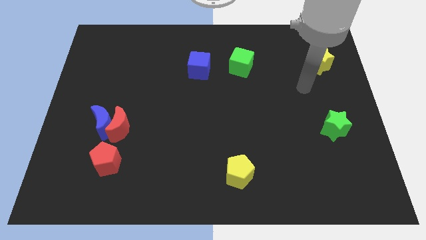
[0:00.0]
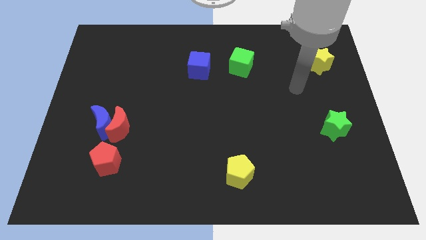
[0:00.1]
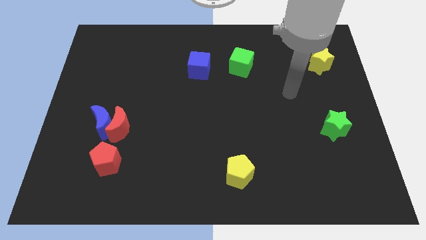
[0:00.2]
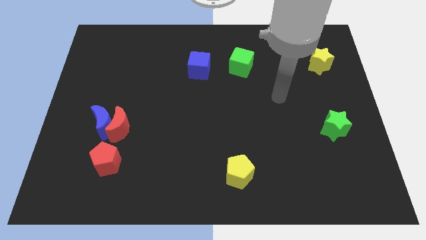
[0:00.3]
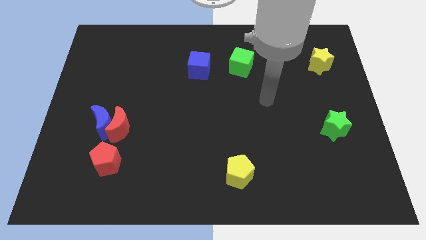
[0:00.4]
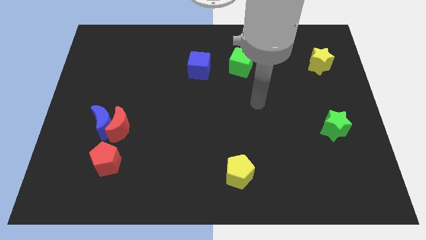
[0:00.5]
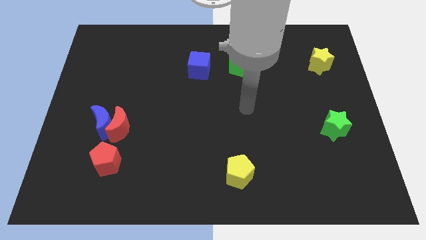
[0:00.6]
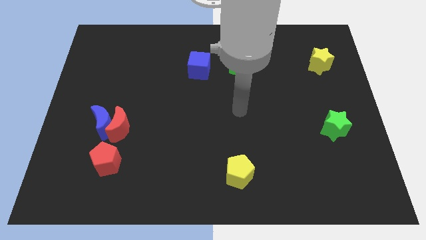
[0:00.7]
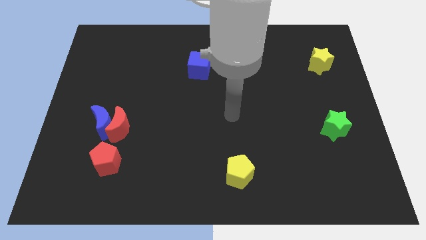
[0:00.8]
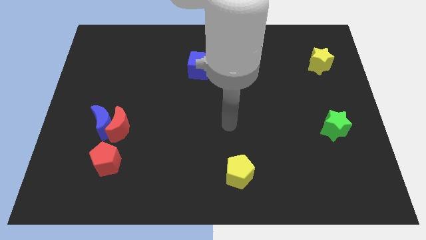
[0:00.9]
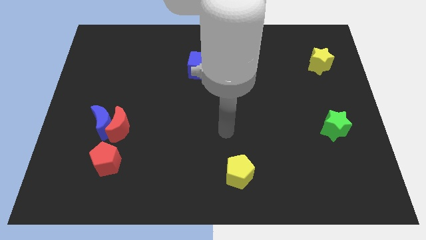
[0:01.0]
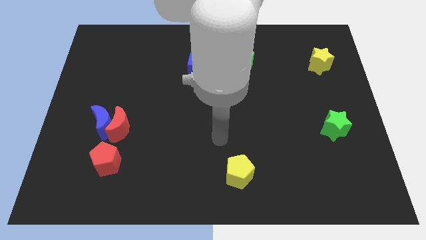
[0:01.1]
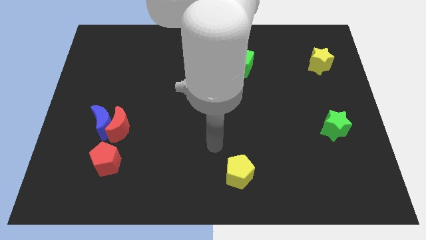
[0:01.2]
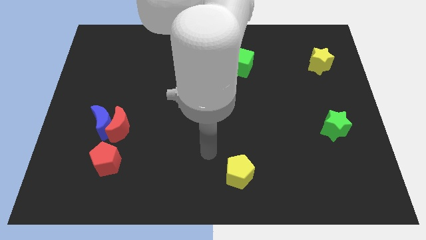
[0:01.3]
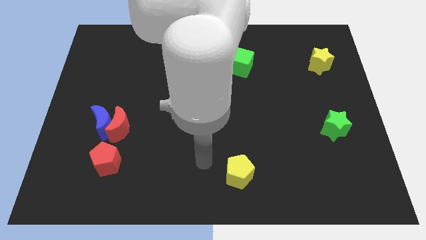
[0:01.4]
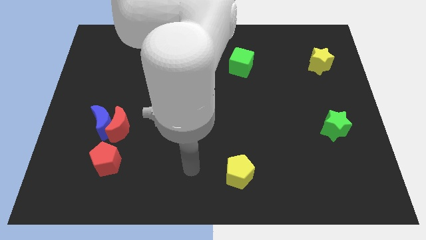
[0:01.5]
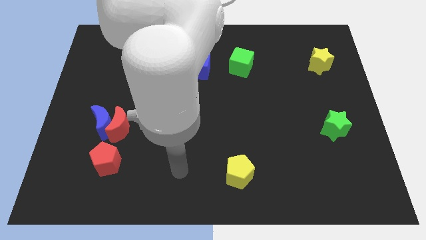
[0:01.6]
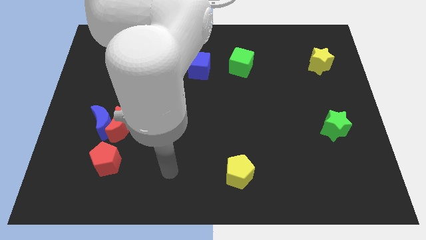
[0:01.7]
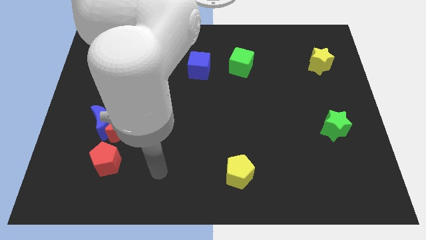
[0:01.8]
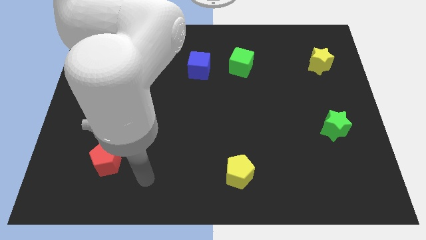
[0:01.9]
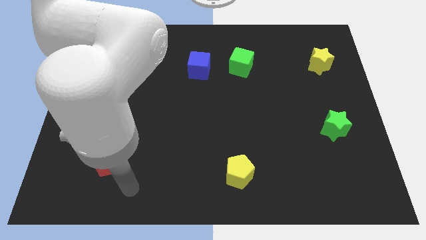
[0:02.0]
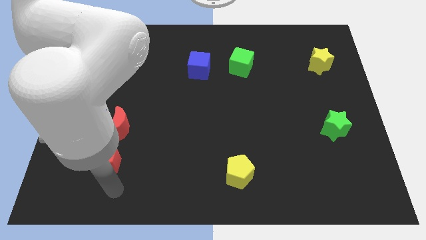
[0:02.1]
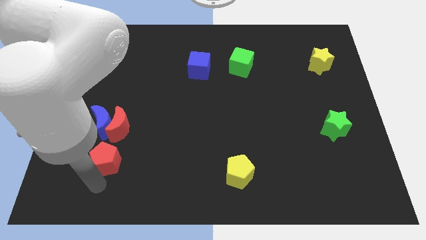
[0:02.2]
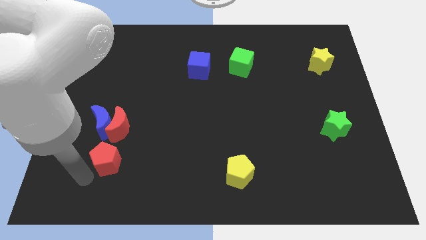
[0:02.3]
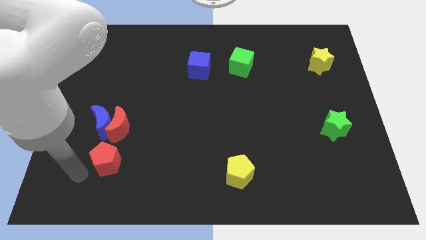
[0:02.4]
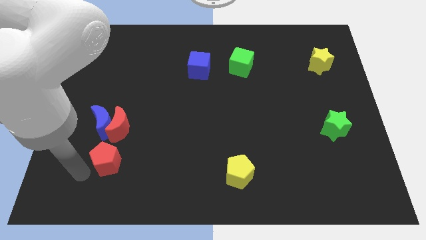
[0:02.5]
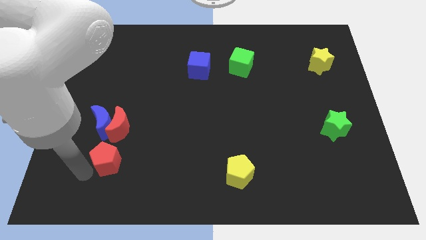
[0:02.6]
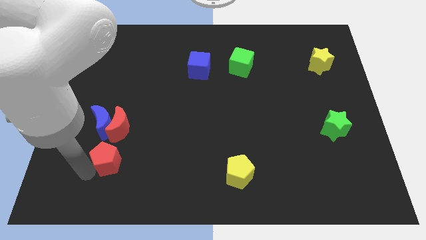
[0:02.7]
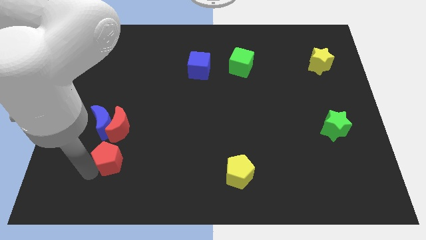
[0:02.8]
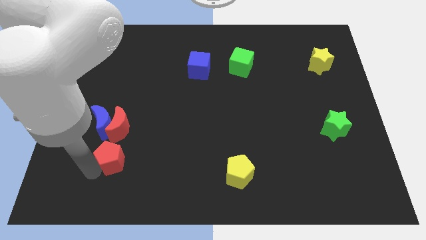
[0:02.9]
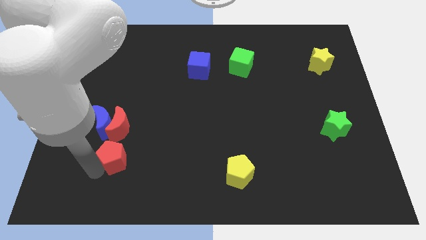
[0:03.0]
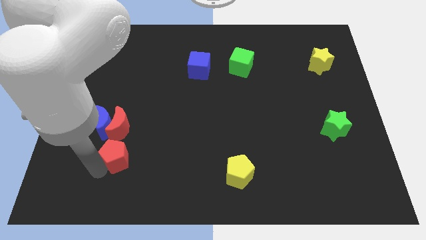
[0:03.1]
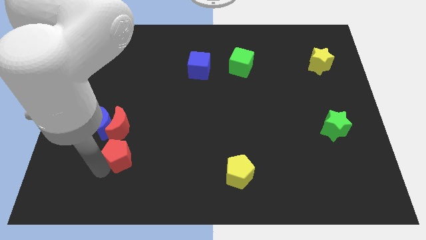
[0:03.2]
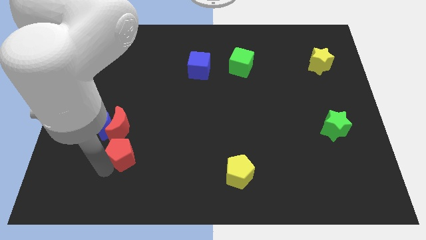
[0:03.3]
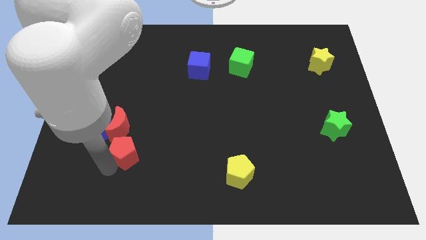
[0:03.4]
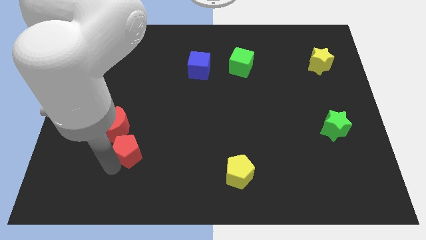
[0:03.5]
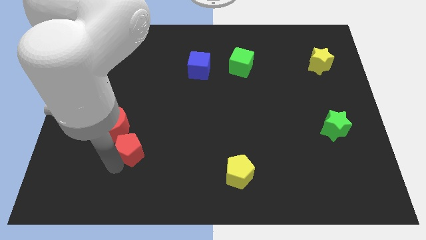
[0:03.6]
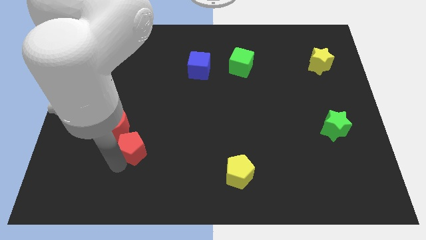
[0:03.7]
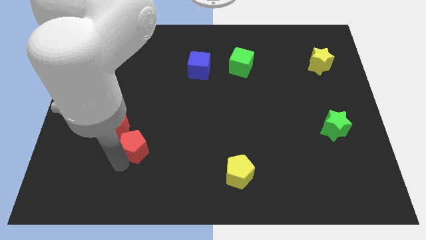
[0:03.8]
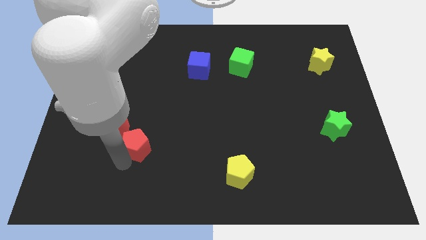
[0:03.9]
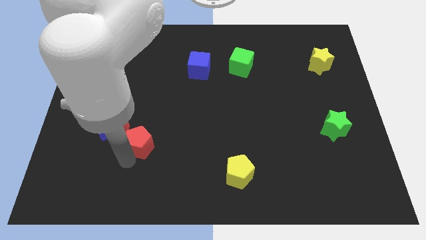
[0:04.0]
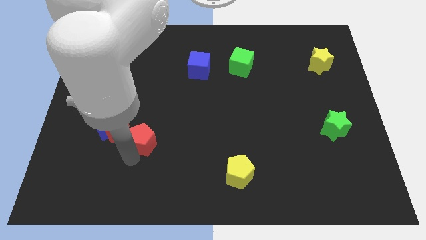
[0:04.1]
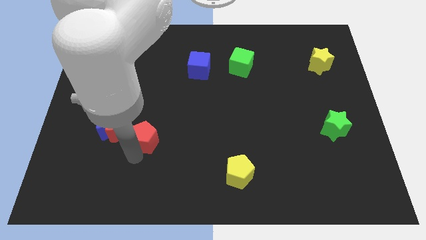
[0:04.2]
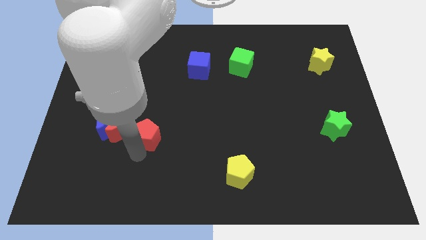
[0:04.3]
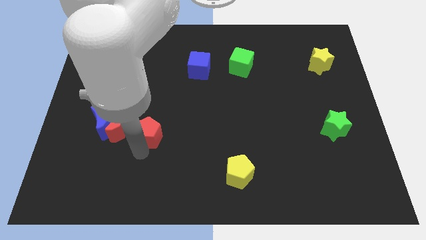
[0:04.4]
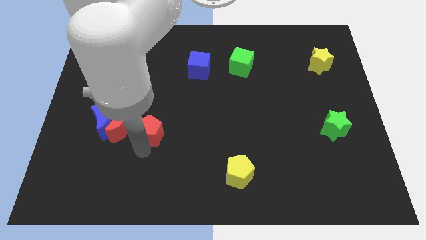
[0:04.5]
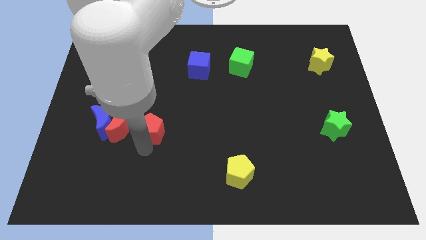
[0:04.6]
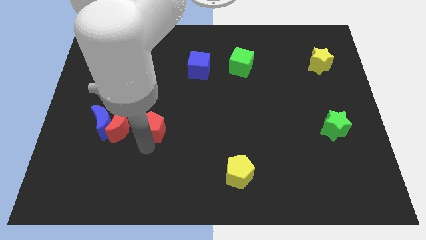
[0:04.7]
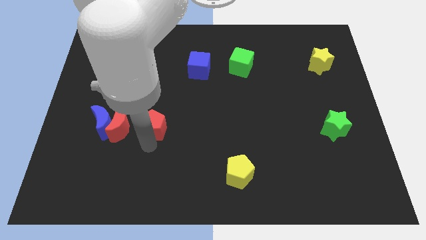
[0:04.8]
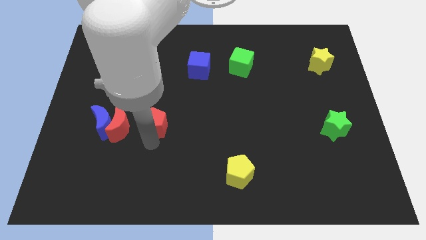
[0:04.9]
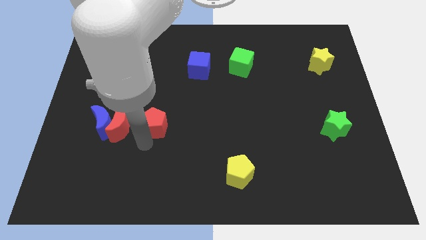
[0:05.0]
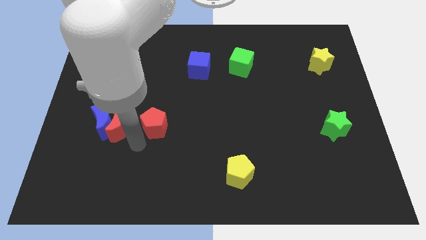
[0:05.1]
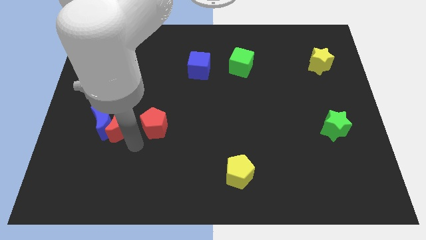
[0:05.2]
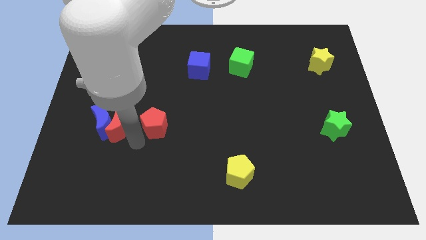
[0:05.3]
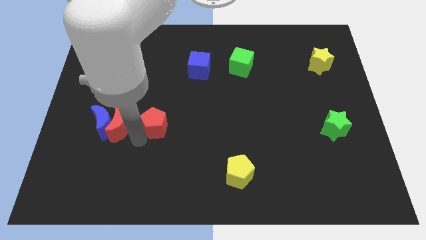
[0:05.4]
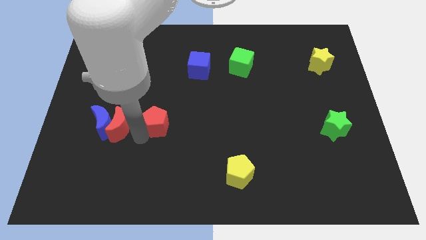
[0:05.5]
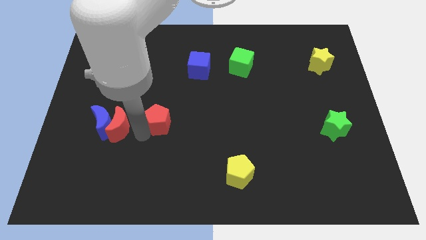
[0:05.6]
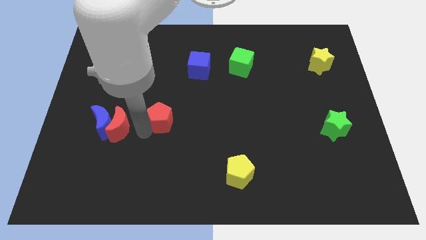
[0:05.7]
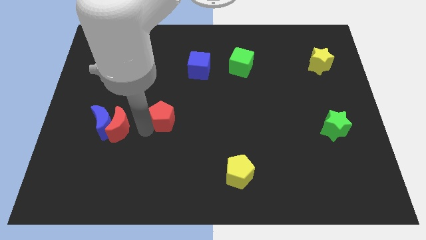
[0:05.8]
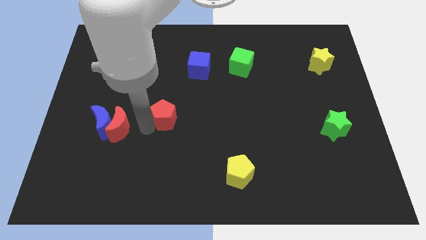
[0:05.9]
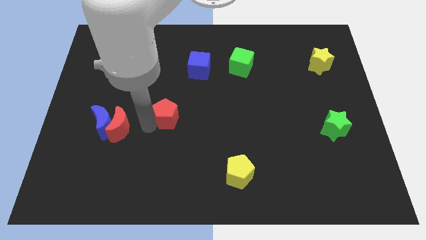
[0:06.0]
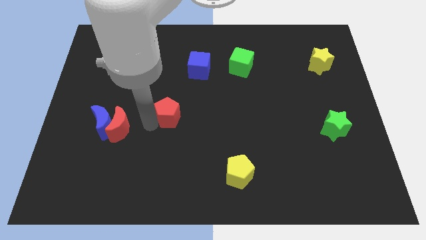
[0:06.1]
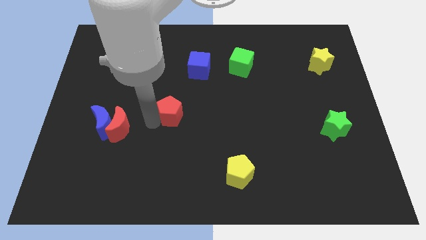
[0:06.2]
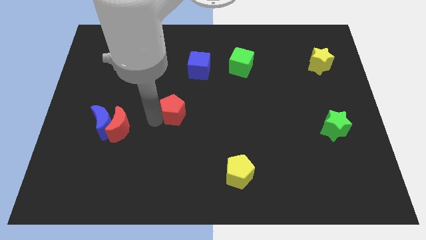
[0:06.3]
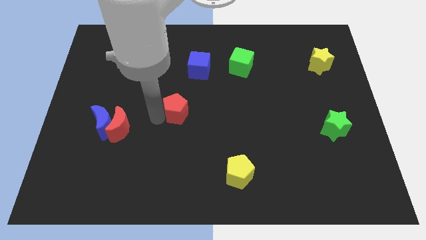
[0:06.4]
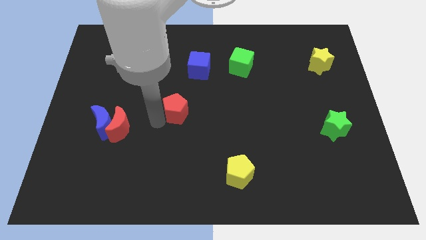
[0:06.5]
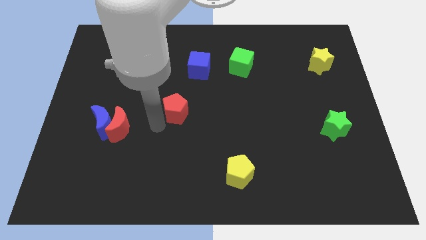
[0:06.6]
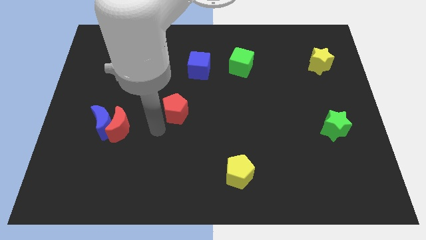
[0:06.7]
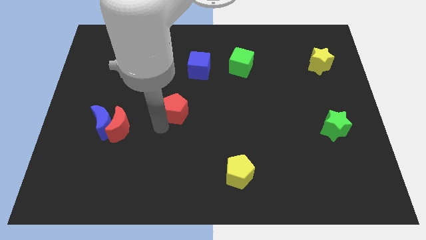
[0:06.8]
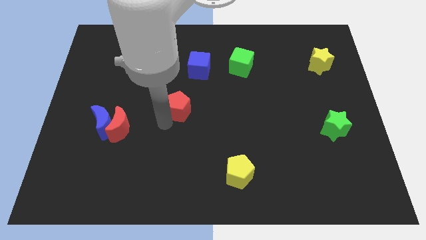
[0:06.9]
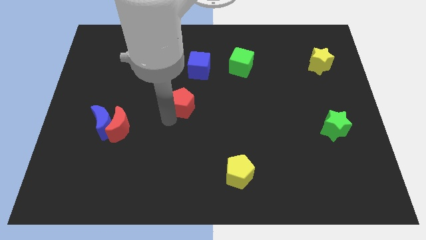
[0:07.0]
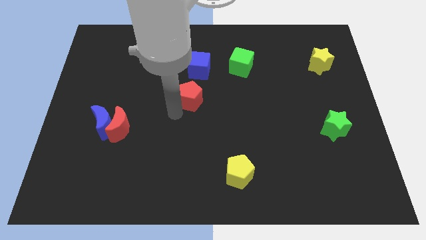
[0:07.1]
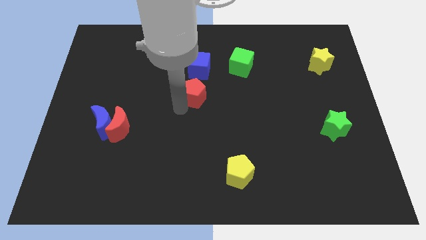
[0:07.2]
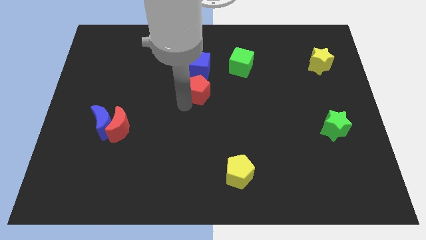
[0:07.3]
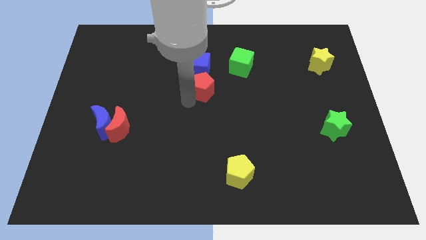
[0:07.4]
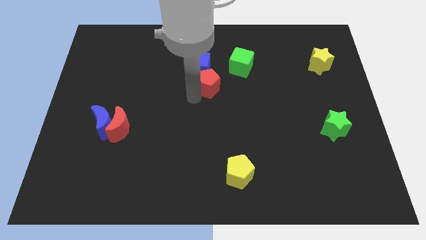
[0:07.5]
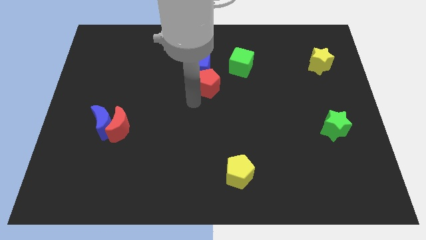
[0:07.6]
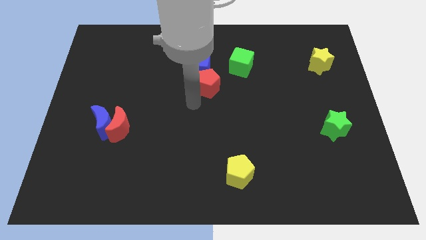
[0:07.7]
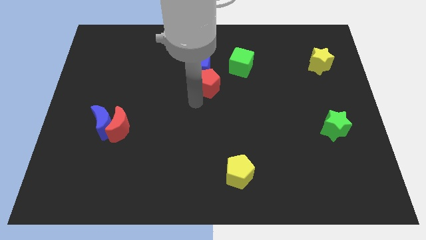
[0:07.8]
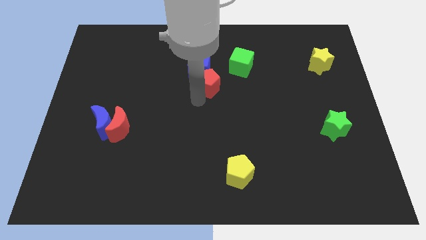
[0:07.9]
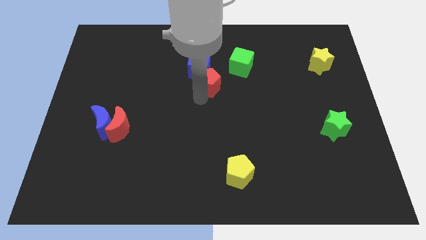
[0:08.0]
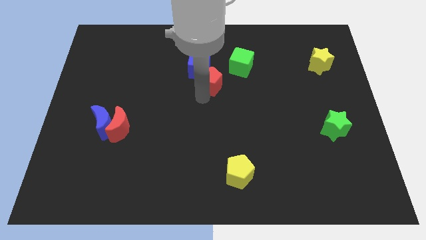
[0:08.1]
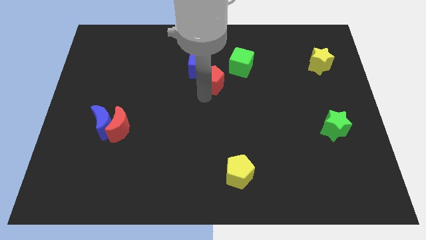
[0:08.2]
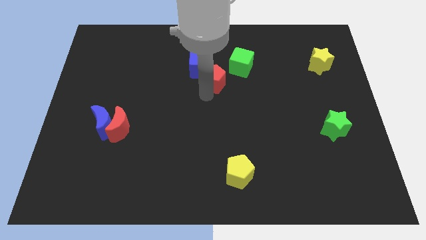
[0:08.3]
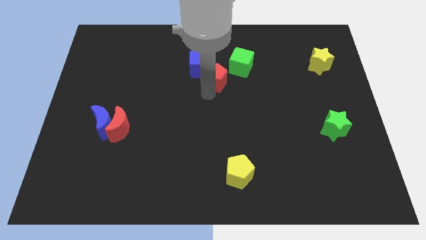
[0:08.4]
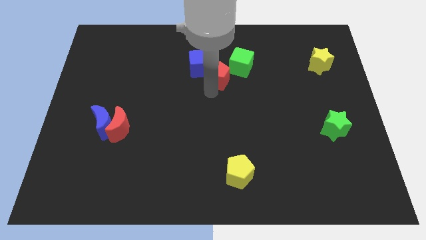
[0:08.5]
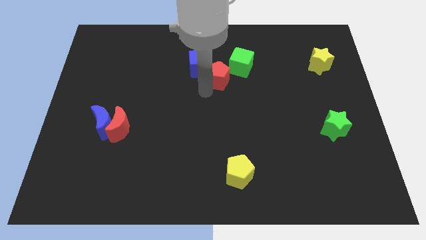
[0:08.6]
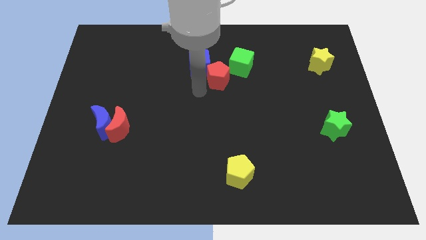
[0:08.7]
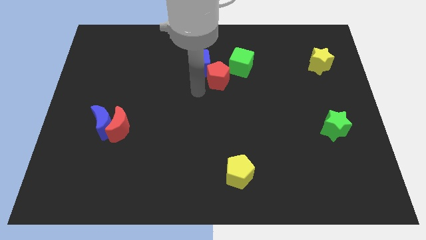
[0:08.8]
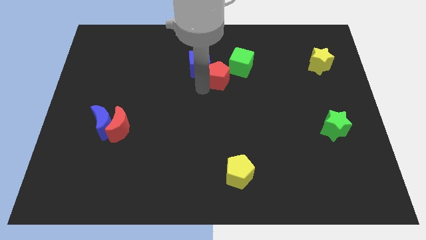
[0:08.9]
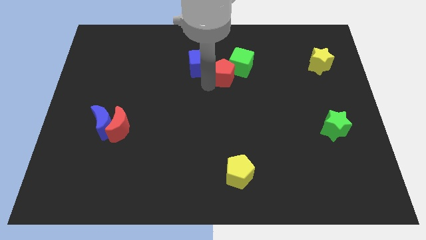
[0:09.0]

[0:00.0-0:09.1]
move the red pentagon close to the green cube
